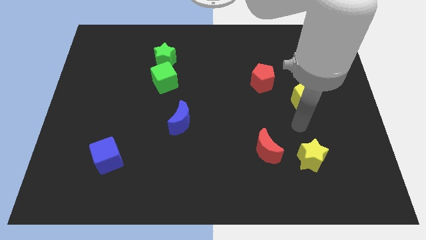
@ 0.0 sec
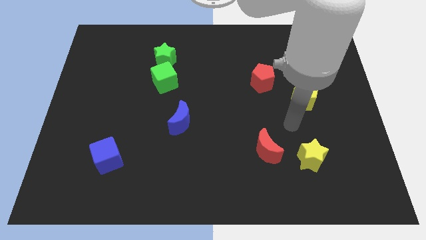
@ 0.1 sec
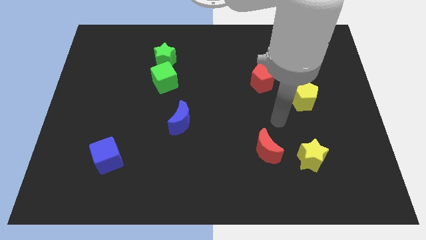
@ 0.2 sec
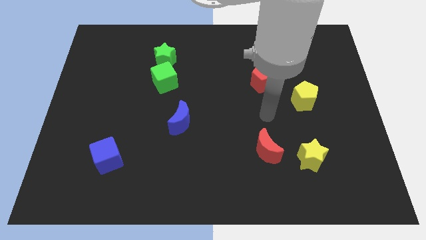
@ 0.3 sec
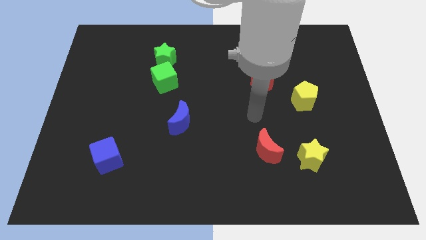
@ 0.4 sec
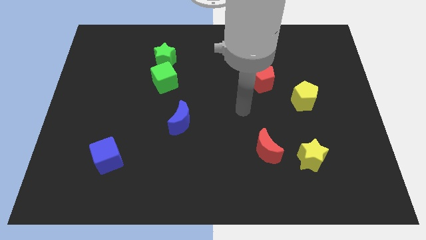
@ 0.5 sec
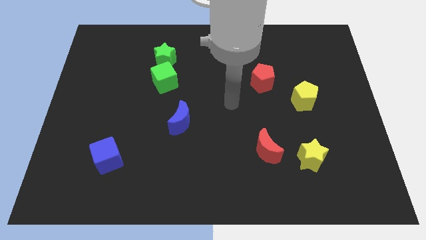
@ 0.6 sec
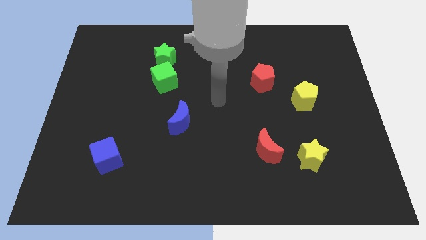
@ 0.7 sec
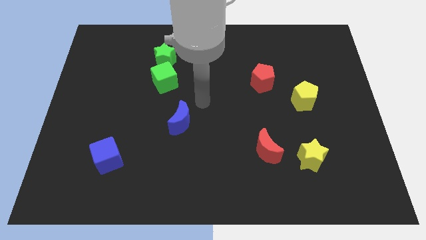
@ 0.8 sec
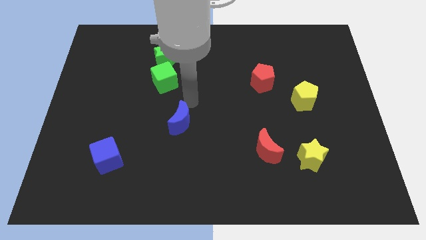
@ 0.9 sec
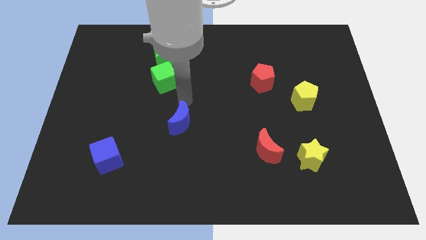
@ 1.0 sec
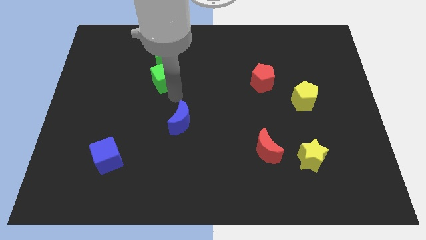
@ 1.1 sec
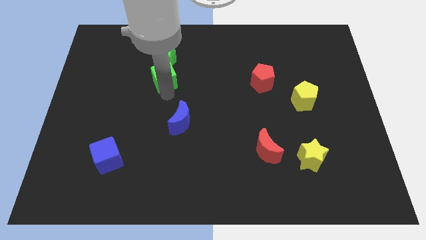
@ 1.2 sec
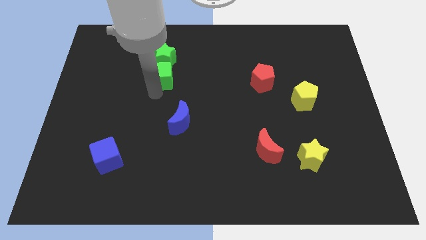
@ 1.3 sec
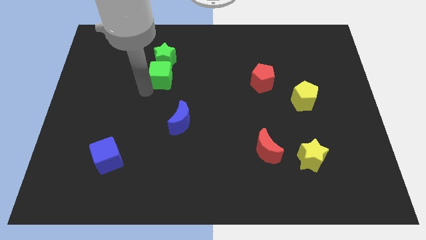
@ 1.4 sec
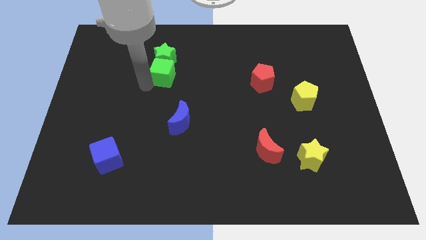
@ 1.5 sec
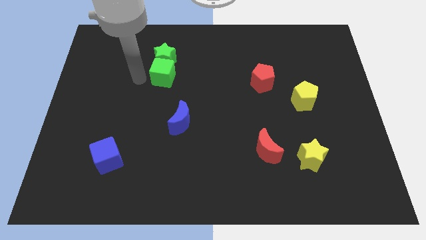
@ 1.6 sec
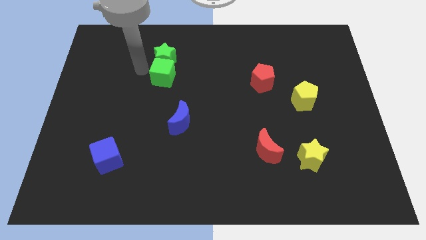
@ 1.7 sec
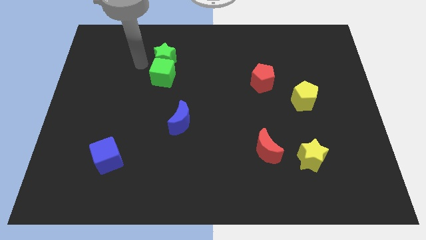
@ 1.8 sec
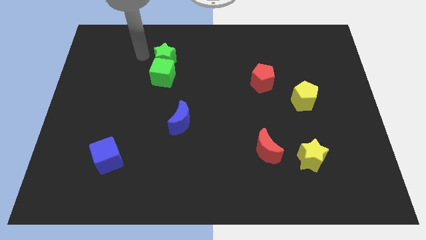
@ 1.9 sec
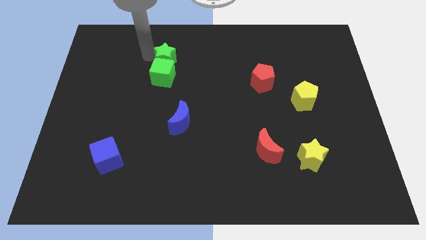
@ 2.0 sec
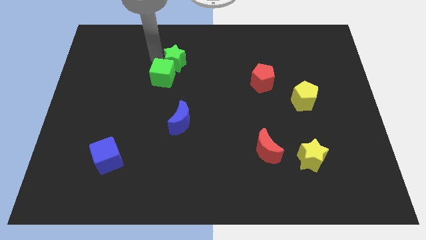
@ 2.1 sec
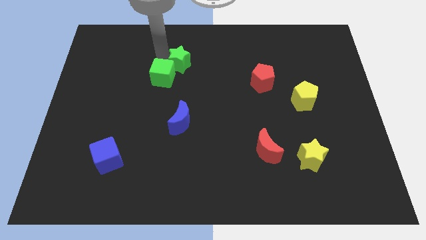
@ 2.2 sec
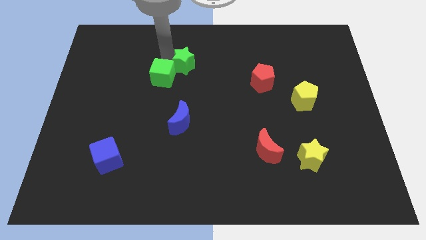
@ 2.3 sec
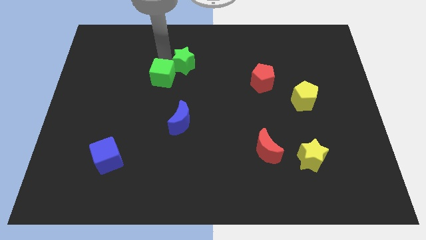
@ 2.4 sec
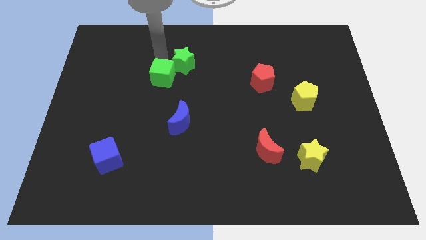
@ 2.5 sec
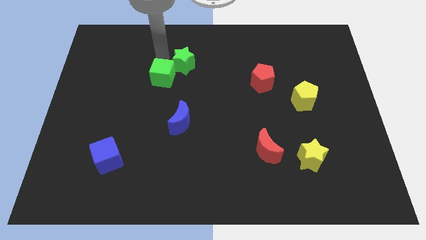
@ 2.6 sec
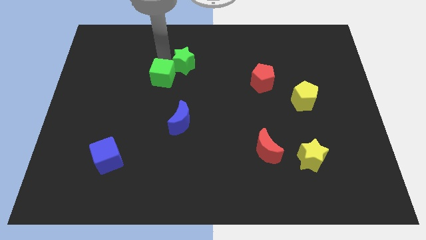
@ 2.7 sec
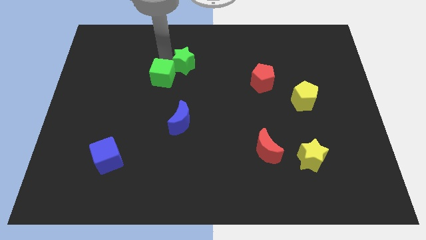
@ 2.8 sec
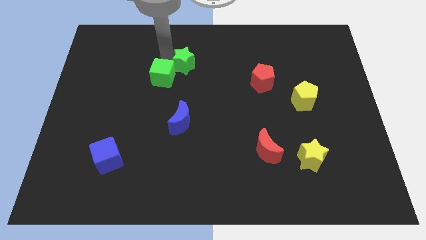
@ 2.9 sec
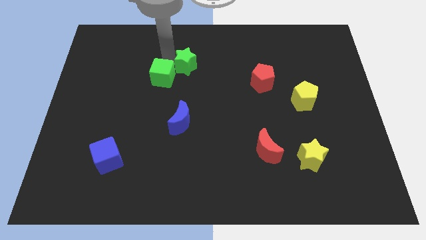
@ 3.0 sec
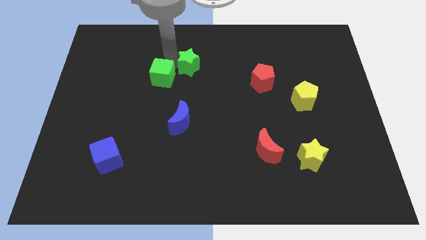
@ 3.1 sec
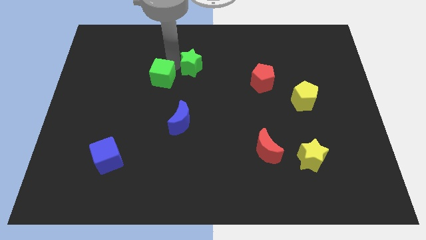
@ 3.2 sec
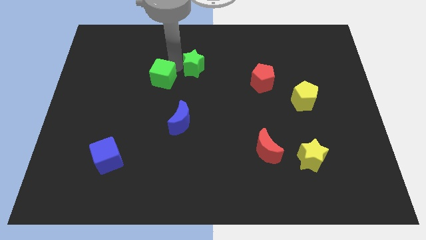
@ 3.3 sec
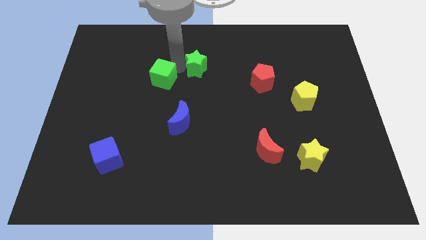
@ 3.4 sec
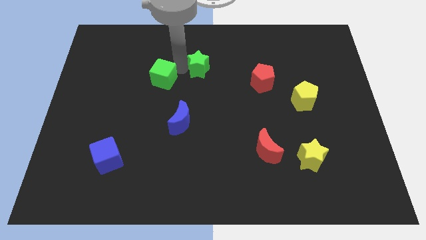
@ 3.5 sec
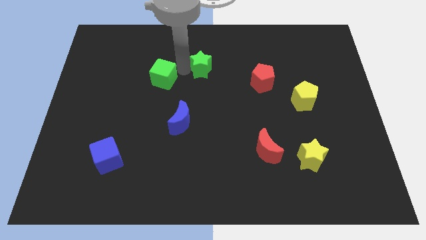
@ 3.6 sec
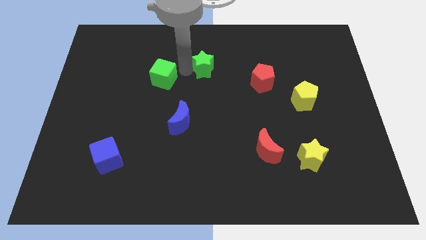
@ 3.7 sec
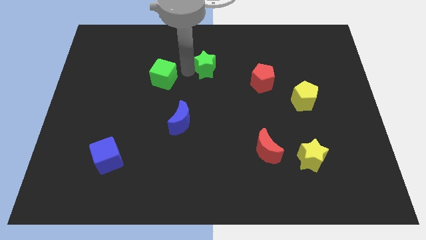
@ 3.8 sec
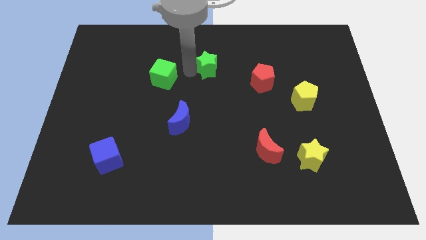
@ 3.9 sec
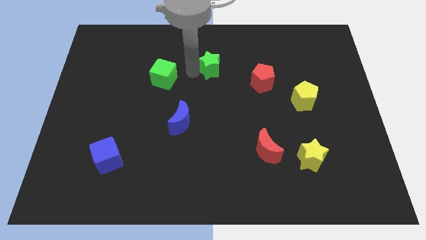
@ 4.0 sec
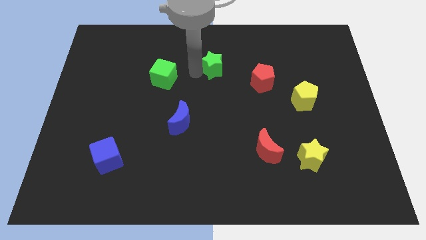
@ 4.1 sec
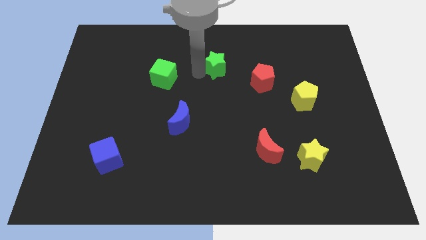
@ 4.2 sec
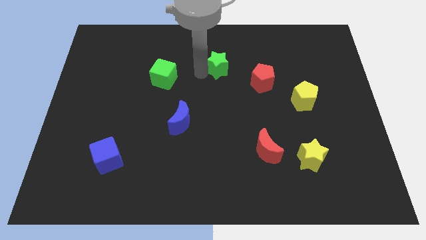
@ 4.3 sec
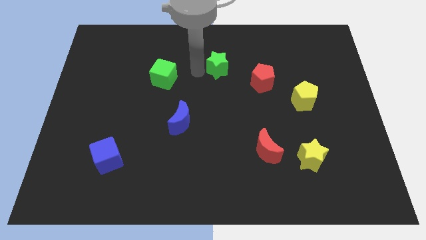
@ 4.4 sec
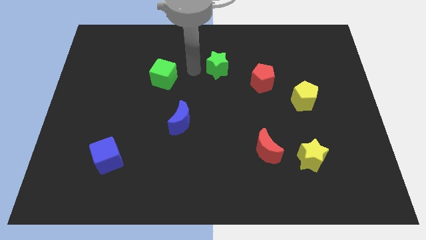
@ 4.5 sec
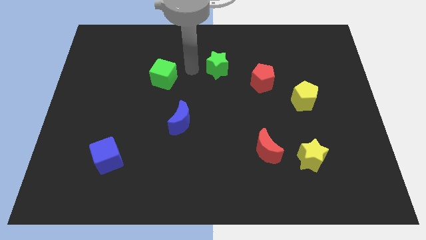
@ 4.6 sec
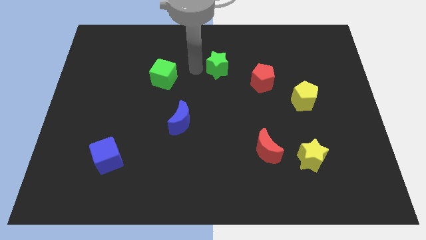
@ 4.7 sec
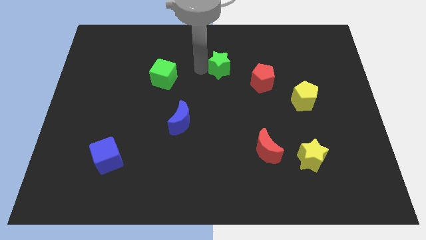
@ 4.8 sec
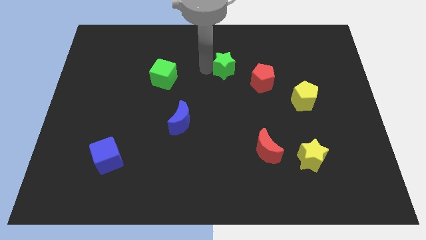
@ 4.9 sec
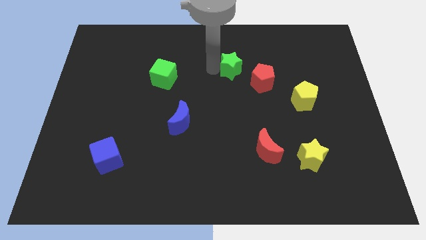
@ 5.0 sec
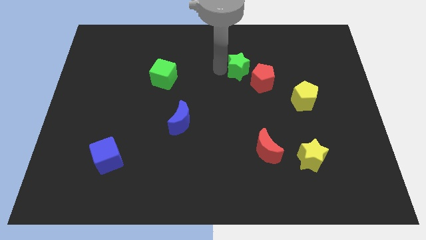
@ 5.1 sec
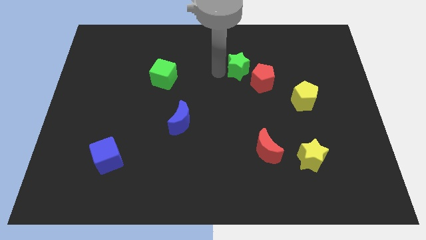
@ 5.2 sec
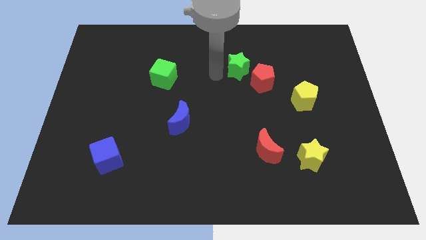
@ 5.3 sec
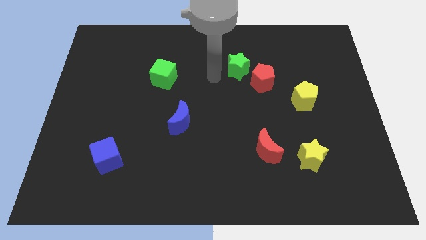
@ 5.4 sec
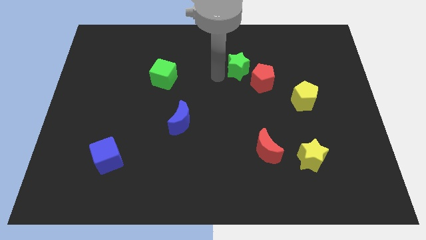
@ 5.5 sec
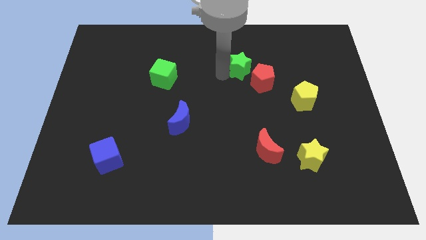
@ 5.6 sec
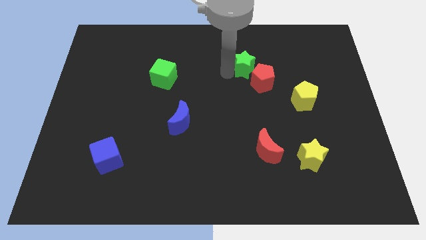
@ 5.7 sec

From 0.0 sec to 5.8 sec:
move the green star right

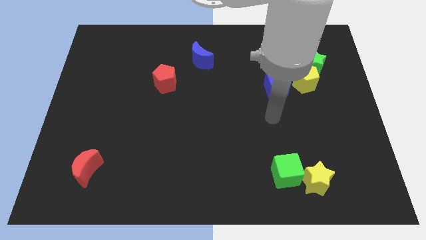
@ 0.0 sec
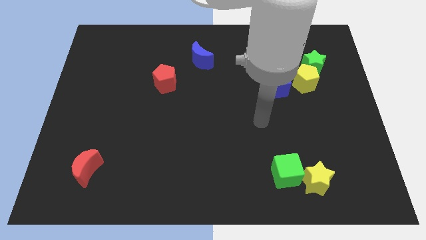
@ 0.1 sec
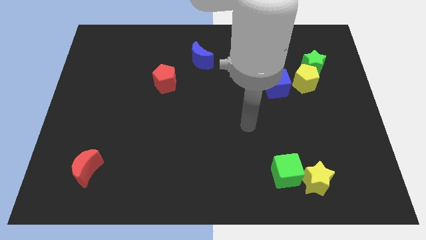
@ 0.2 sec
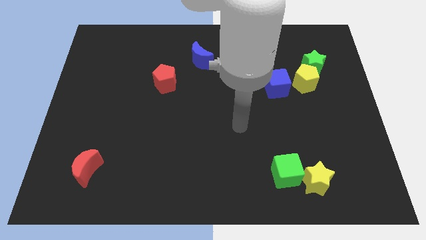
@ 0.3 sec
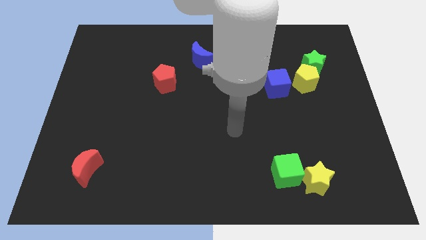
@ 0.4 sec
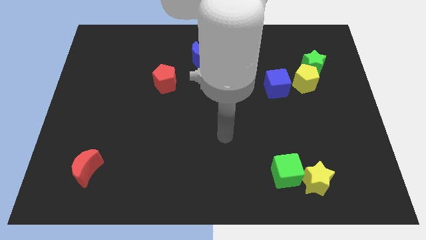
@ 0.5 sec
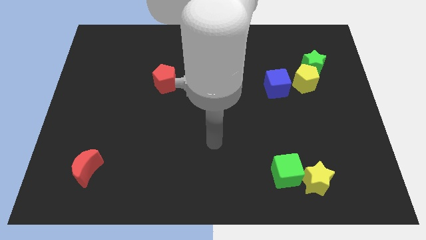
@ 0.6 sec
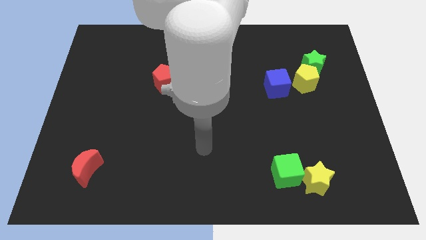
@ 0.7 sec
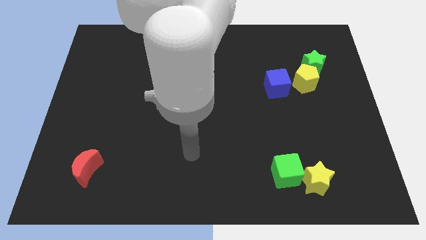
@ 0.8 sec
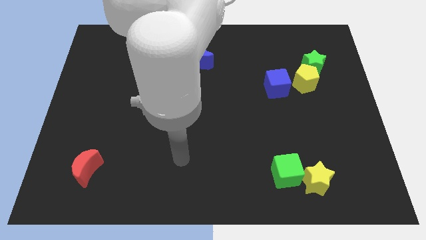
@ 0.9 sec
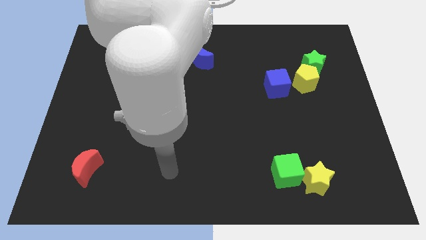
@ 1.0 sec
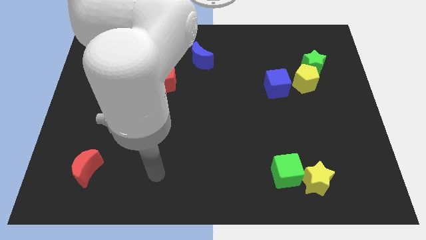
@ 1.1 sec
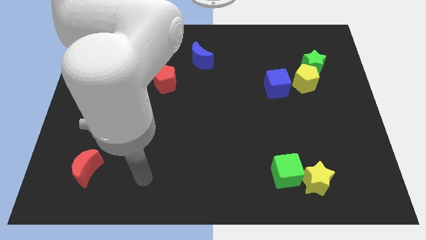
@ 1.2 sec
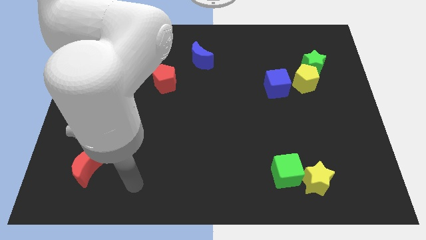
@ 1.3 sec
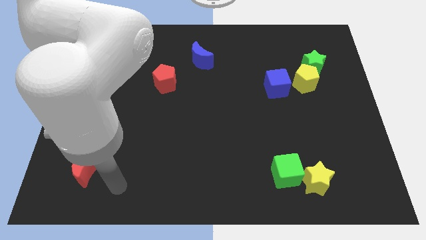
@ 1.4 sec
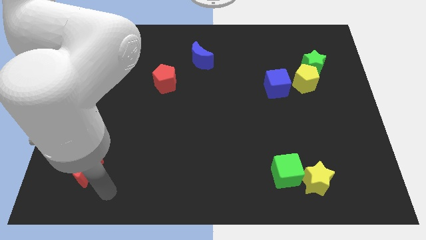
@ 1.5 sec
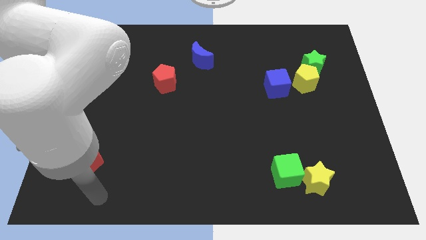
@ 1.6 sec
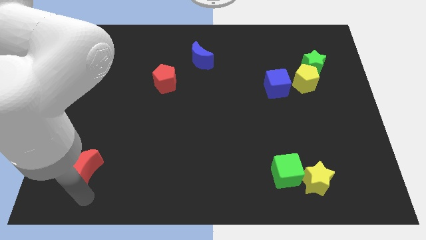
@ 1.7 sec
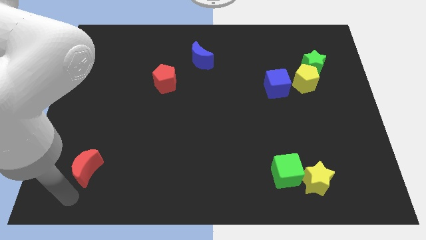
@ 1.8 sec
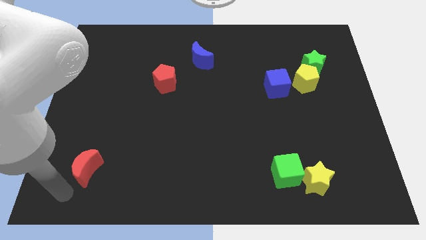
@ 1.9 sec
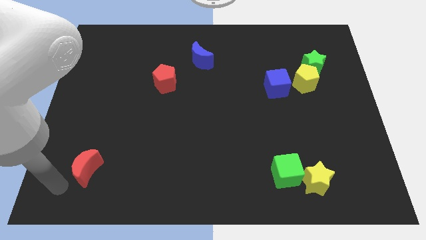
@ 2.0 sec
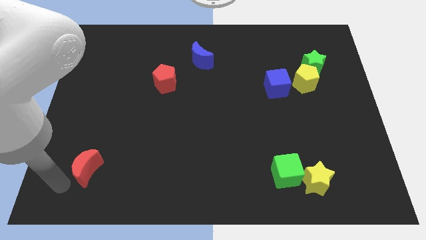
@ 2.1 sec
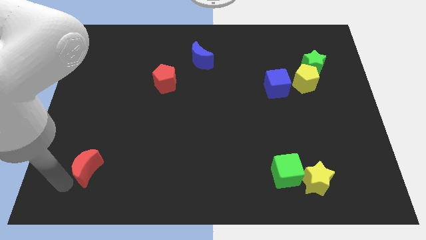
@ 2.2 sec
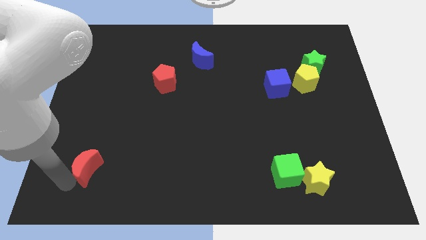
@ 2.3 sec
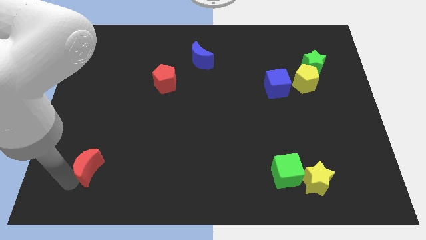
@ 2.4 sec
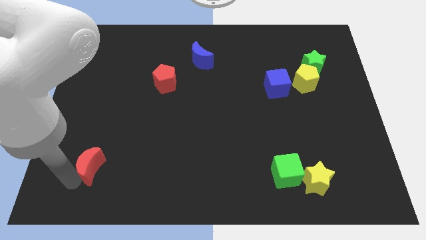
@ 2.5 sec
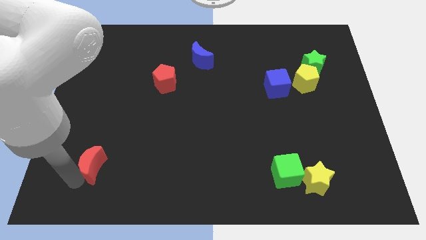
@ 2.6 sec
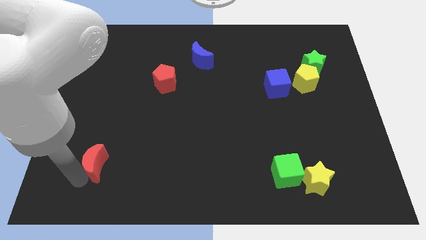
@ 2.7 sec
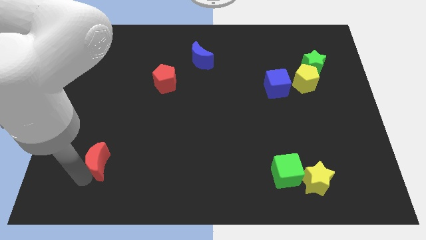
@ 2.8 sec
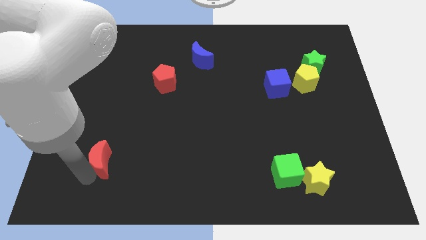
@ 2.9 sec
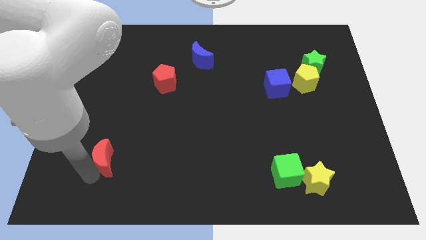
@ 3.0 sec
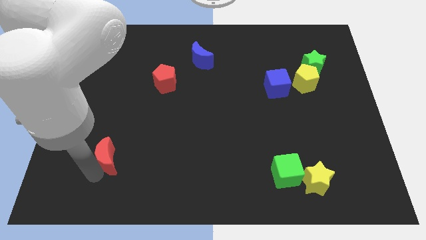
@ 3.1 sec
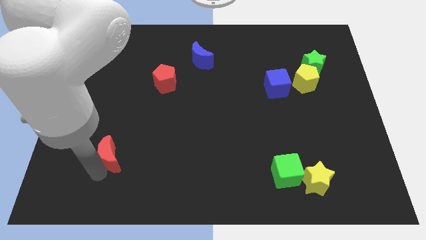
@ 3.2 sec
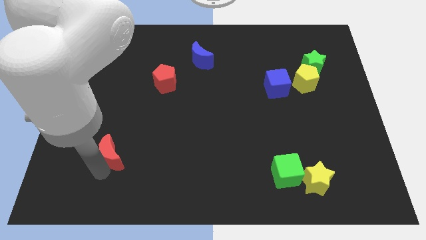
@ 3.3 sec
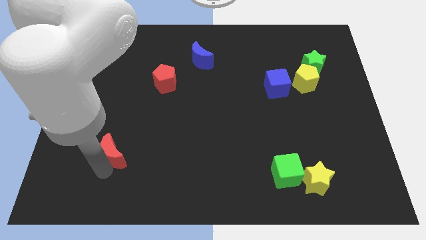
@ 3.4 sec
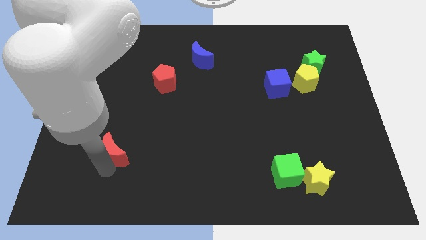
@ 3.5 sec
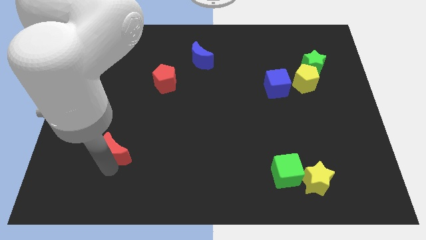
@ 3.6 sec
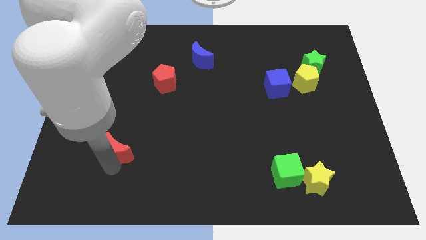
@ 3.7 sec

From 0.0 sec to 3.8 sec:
slightly move the red moon upwards and then to the right
